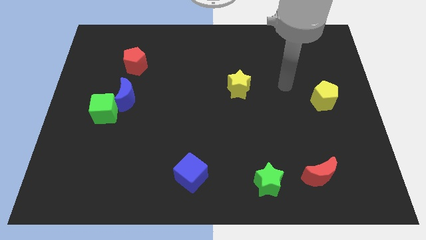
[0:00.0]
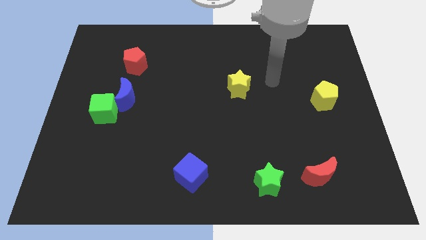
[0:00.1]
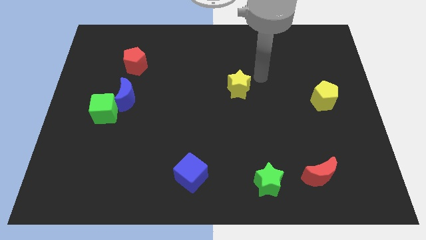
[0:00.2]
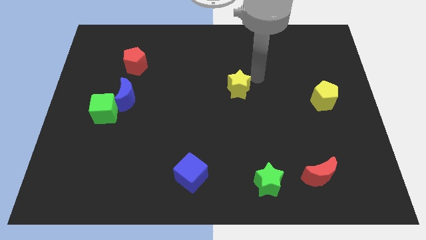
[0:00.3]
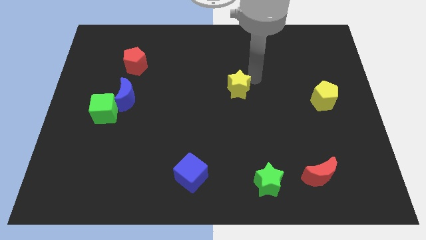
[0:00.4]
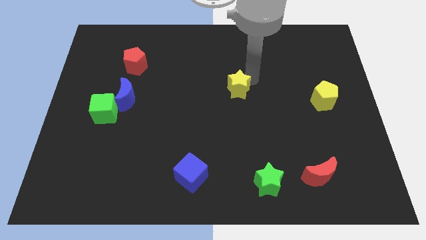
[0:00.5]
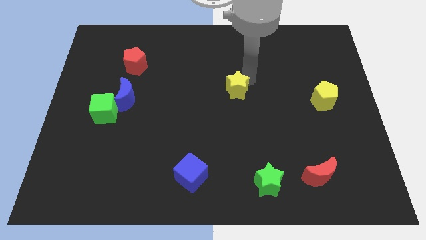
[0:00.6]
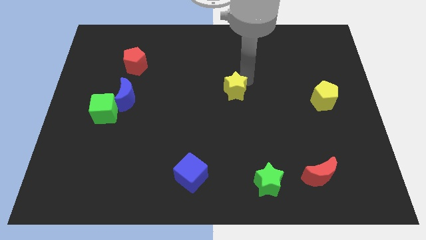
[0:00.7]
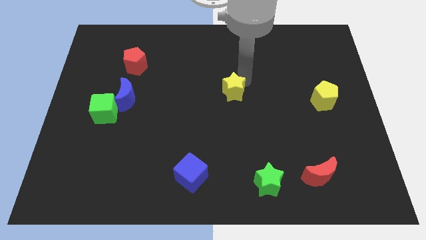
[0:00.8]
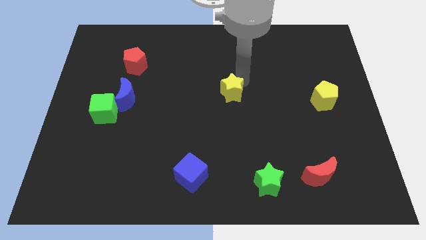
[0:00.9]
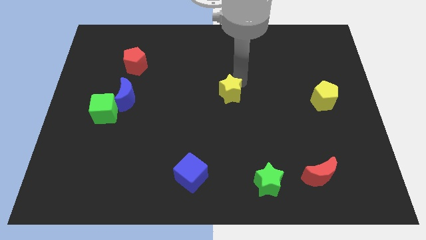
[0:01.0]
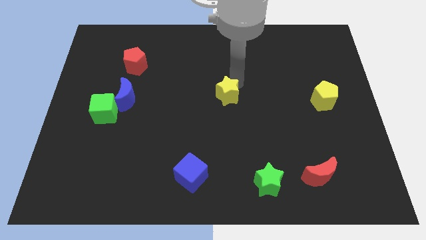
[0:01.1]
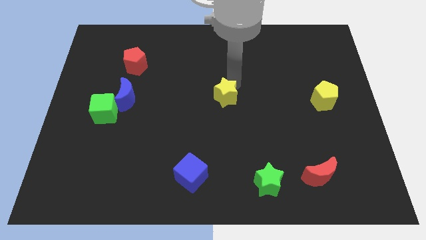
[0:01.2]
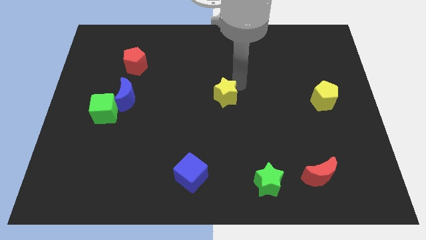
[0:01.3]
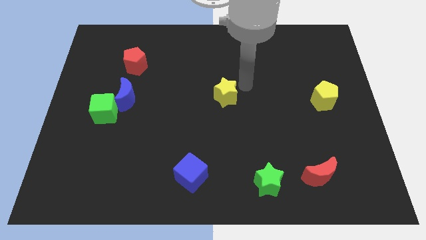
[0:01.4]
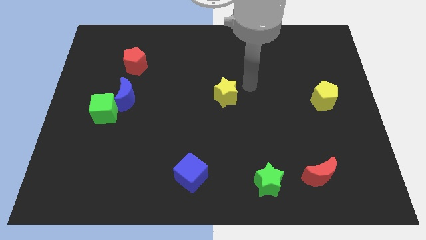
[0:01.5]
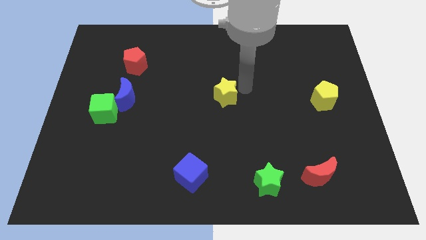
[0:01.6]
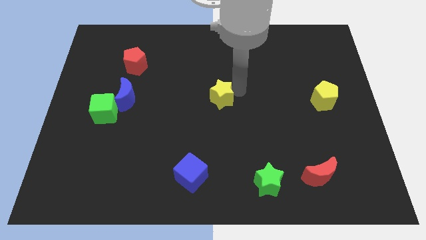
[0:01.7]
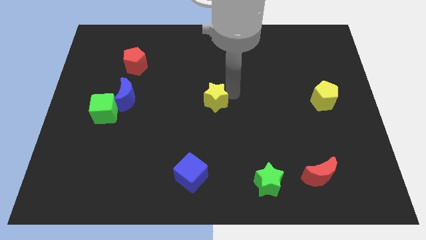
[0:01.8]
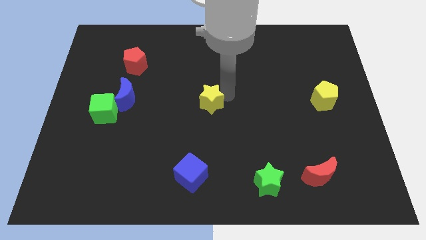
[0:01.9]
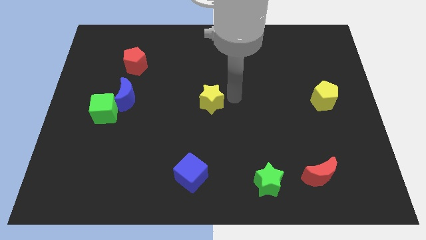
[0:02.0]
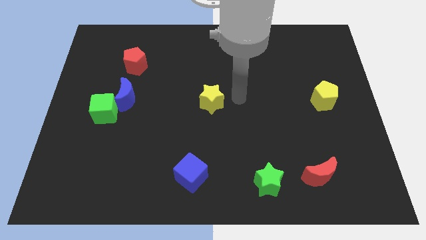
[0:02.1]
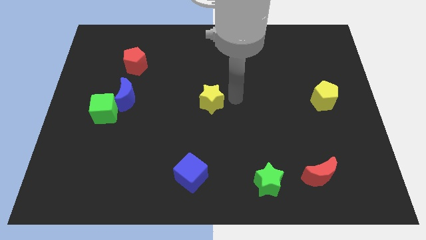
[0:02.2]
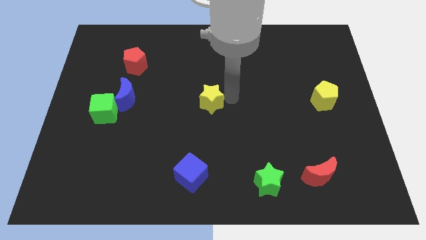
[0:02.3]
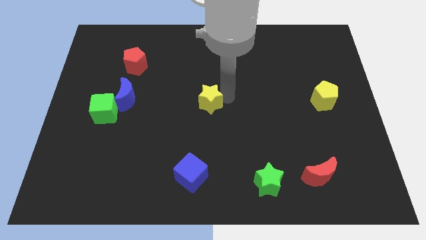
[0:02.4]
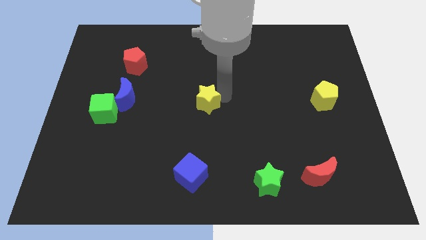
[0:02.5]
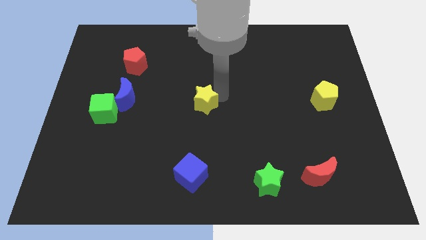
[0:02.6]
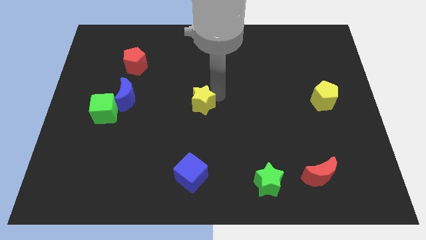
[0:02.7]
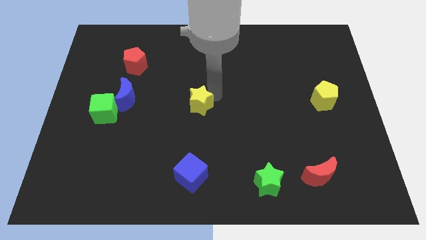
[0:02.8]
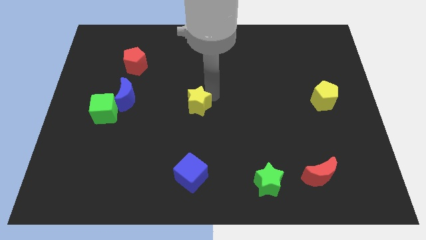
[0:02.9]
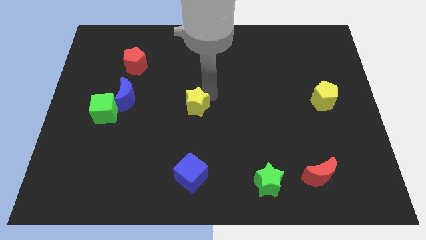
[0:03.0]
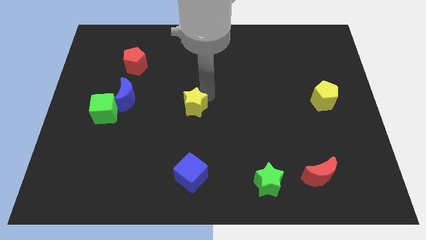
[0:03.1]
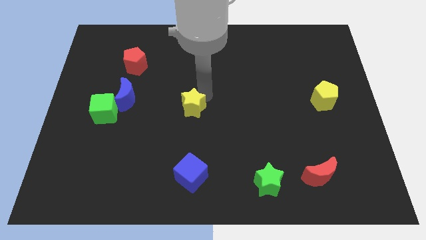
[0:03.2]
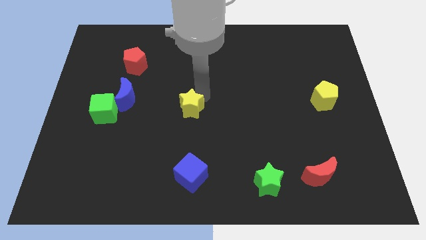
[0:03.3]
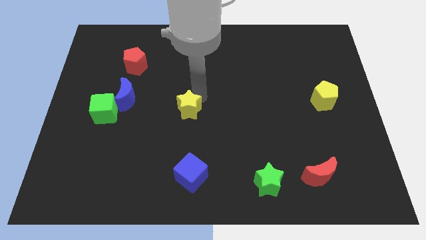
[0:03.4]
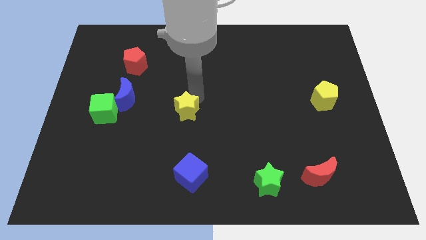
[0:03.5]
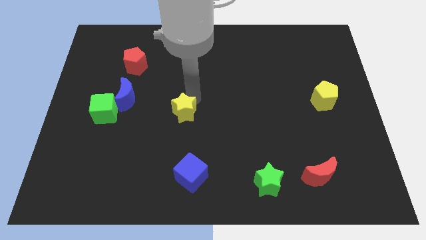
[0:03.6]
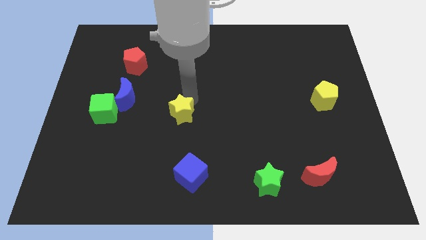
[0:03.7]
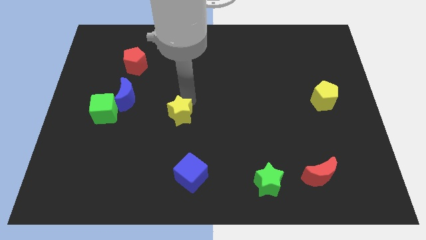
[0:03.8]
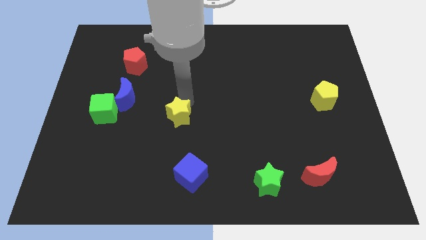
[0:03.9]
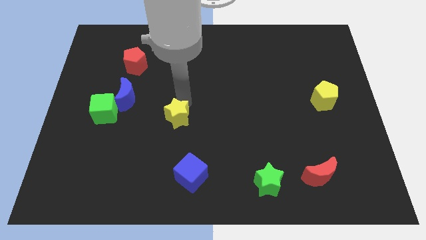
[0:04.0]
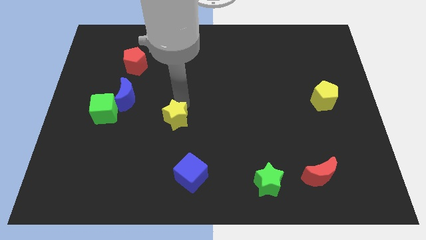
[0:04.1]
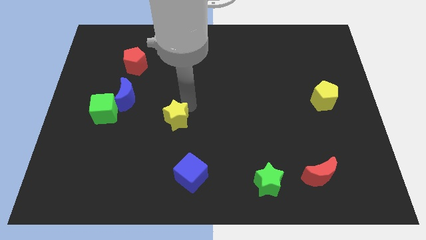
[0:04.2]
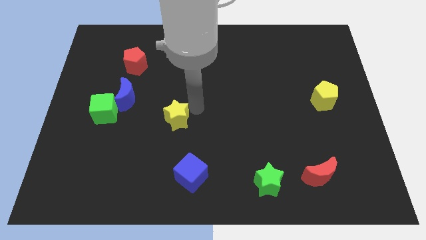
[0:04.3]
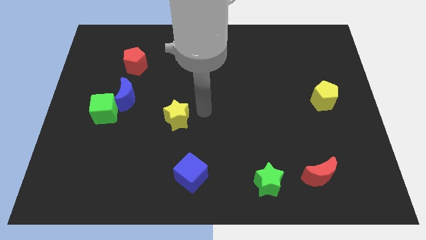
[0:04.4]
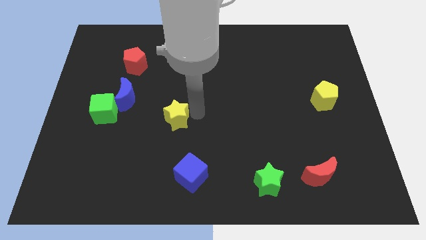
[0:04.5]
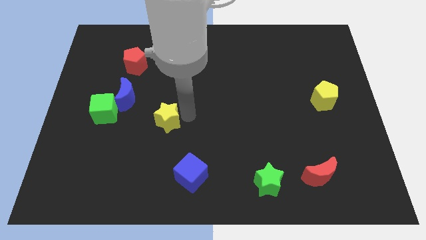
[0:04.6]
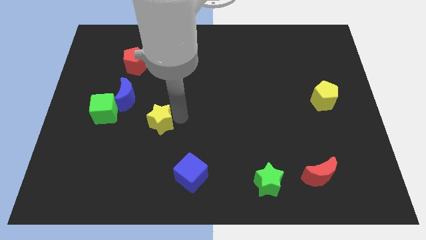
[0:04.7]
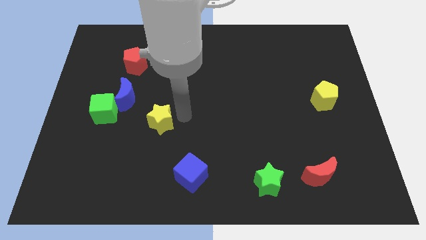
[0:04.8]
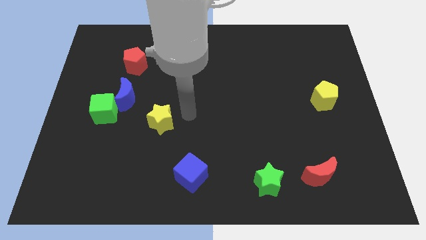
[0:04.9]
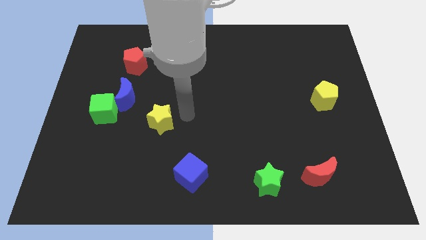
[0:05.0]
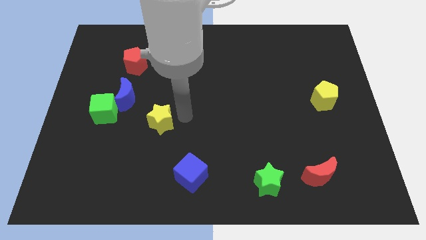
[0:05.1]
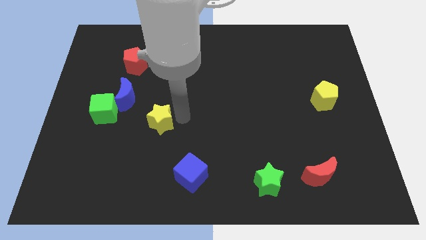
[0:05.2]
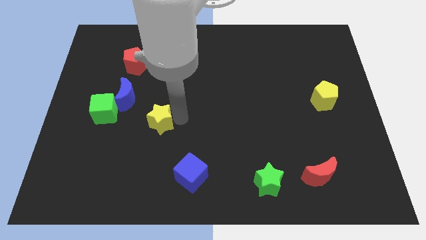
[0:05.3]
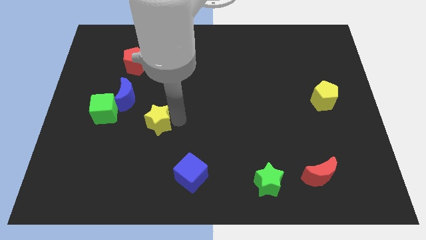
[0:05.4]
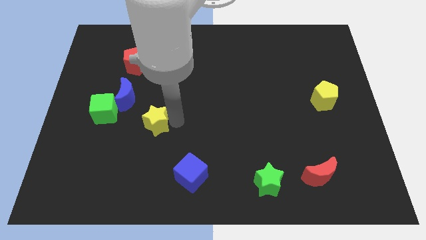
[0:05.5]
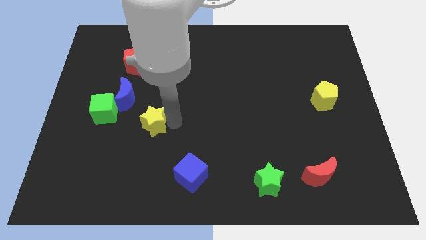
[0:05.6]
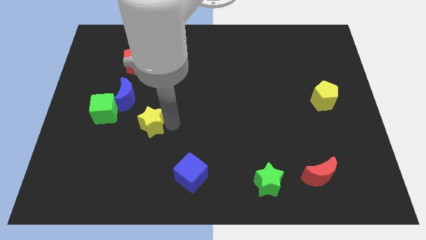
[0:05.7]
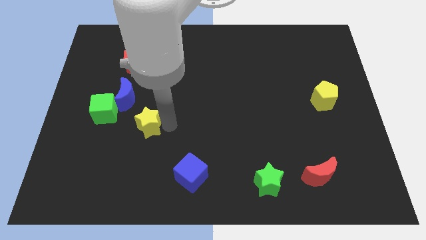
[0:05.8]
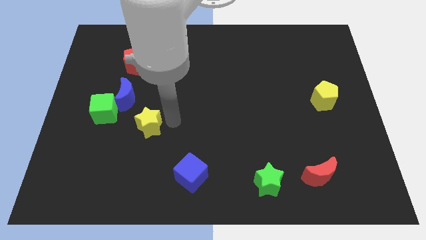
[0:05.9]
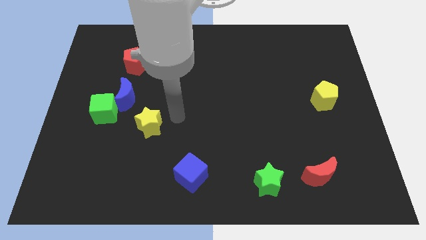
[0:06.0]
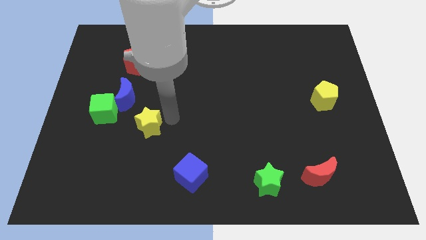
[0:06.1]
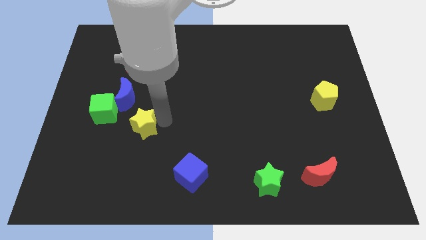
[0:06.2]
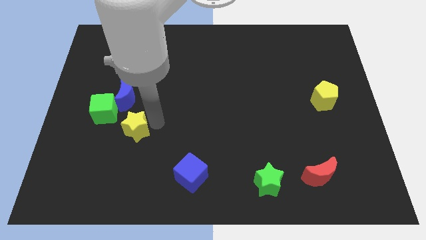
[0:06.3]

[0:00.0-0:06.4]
slide the yellow star to the bottom side of the blue moon
